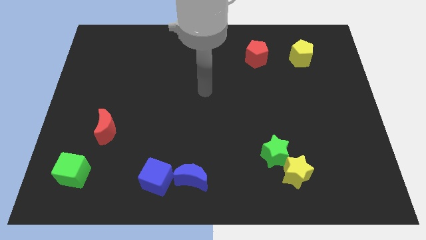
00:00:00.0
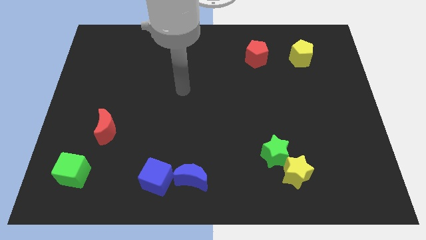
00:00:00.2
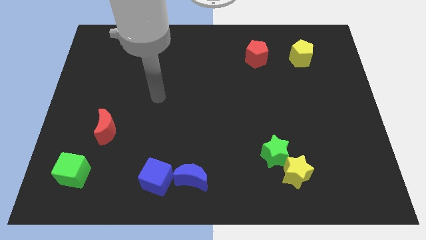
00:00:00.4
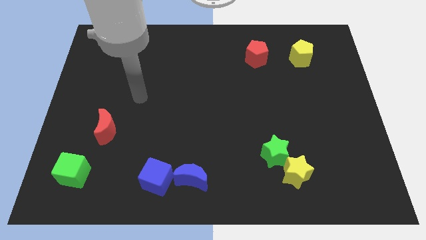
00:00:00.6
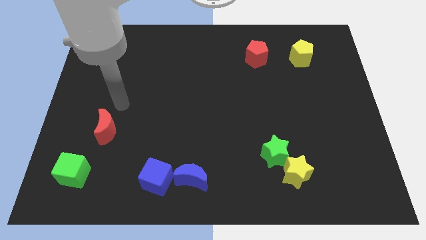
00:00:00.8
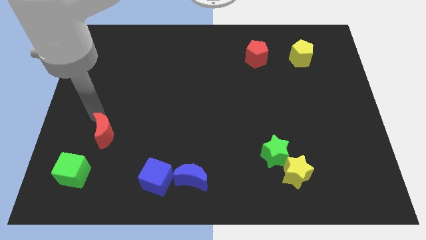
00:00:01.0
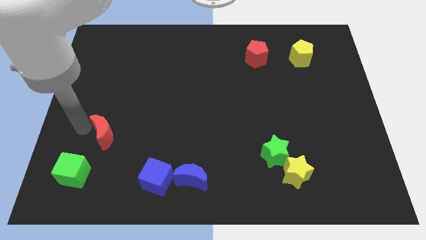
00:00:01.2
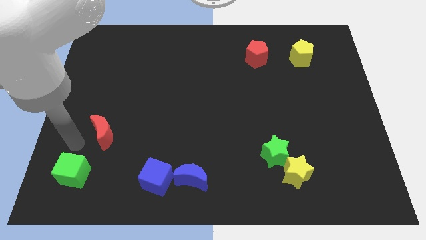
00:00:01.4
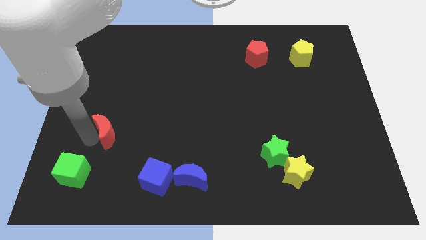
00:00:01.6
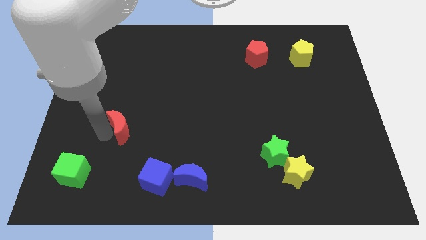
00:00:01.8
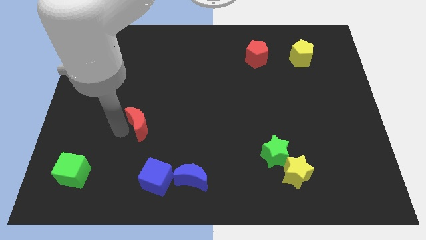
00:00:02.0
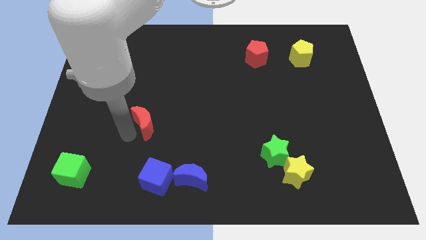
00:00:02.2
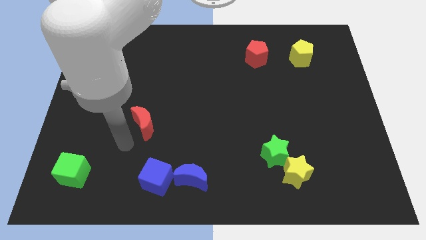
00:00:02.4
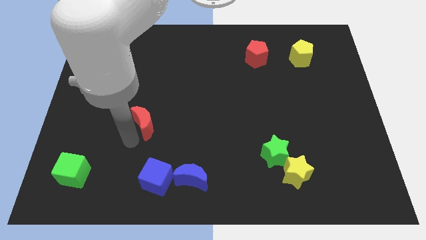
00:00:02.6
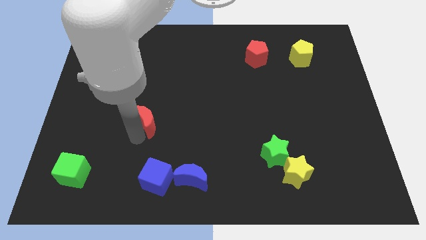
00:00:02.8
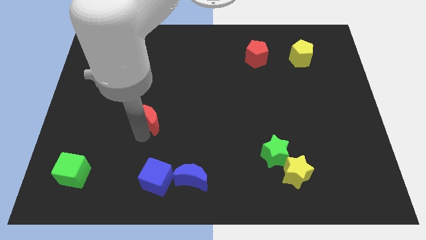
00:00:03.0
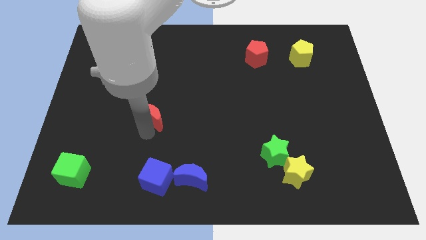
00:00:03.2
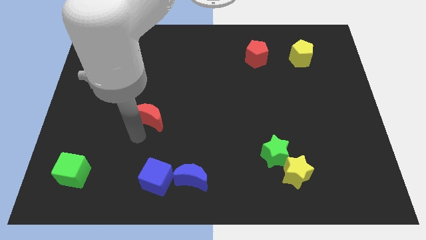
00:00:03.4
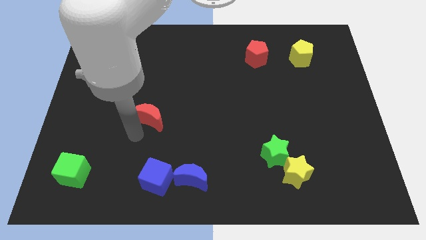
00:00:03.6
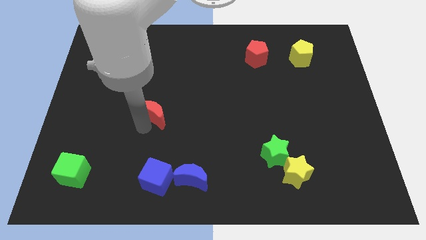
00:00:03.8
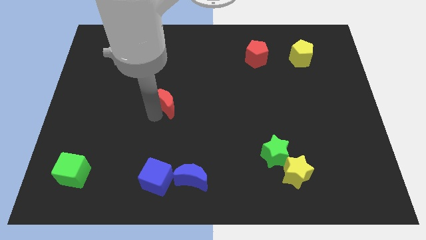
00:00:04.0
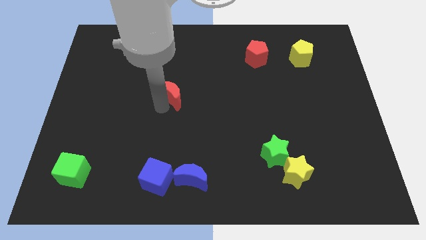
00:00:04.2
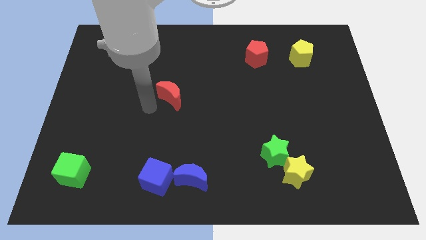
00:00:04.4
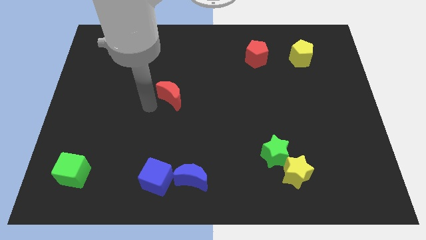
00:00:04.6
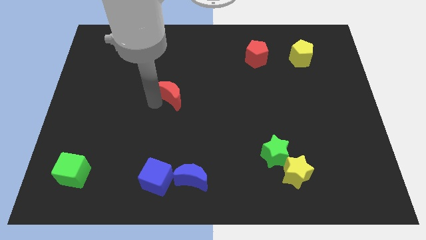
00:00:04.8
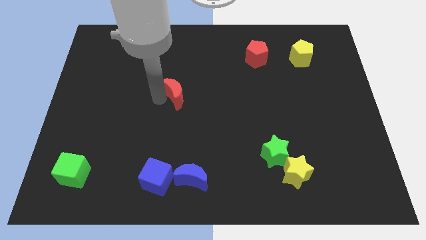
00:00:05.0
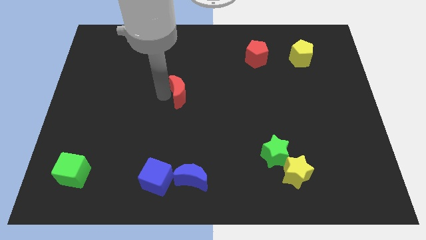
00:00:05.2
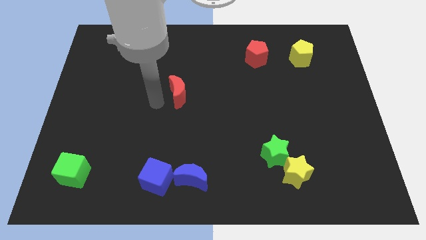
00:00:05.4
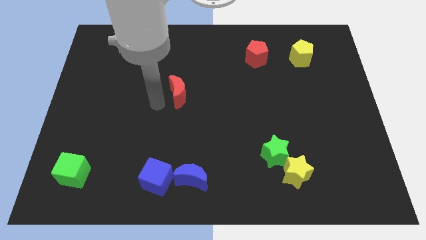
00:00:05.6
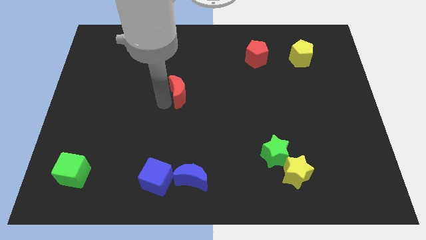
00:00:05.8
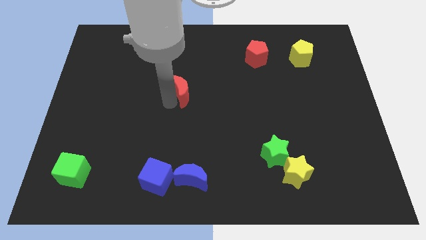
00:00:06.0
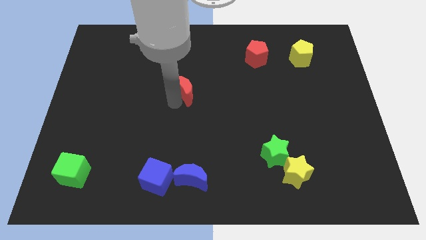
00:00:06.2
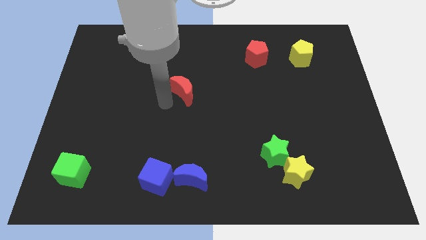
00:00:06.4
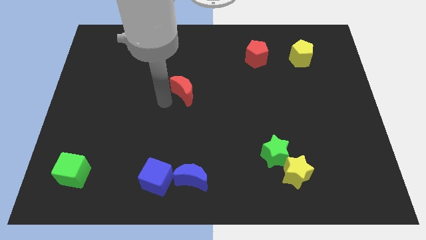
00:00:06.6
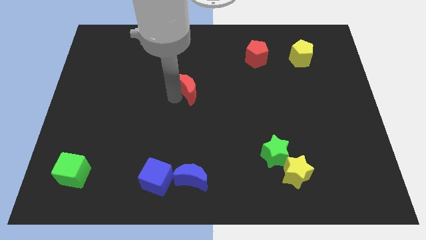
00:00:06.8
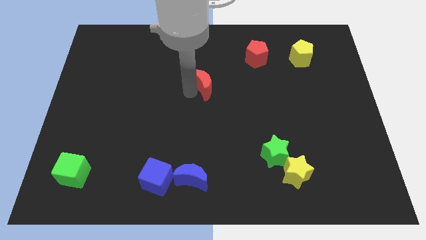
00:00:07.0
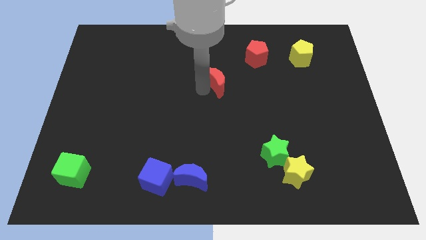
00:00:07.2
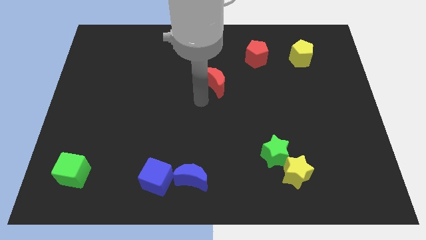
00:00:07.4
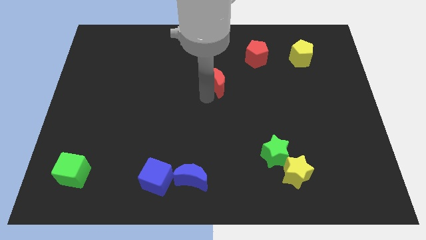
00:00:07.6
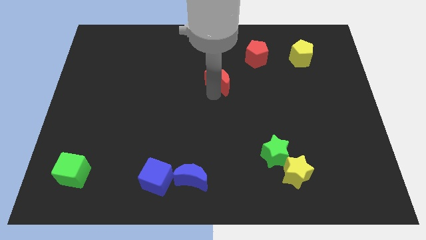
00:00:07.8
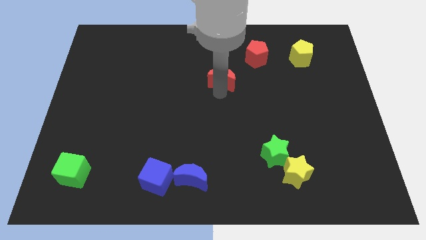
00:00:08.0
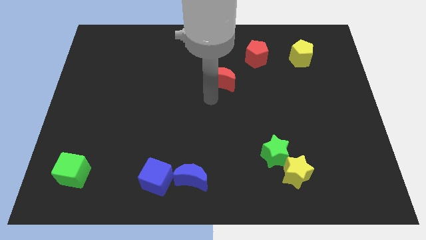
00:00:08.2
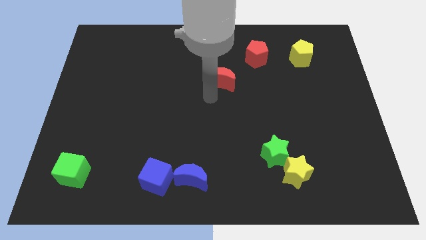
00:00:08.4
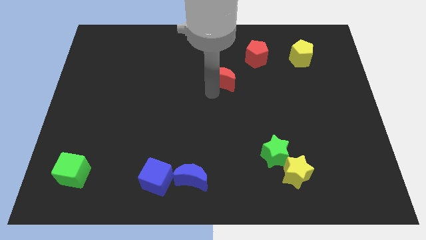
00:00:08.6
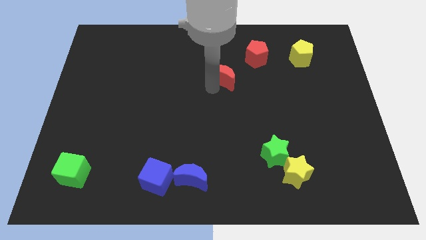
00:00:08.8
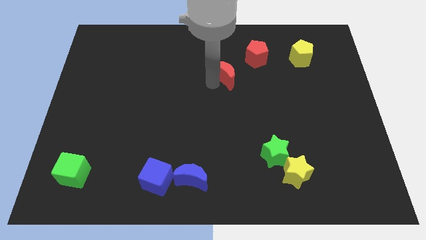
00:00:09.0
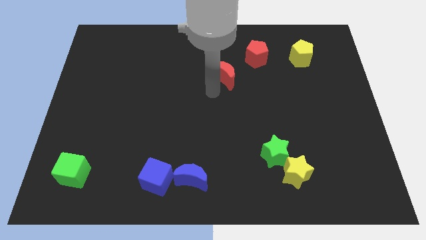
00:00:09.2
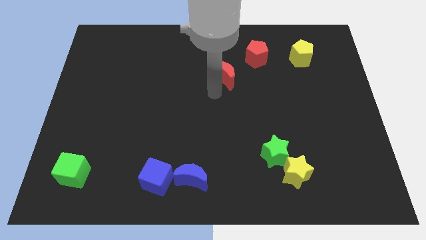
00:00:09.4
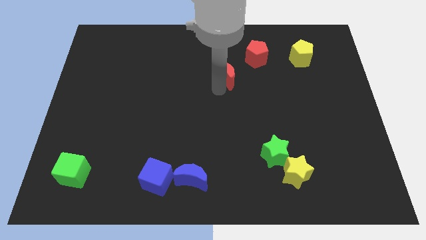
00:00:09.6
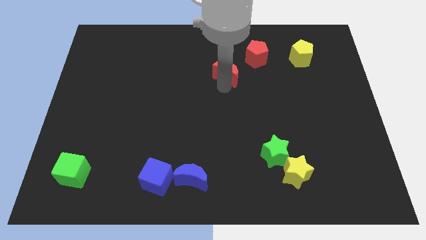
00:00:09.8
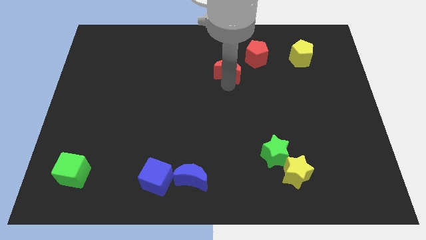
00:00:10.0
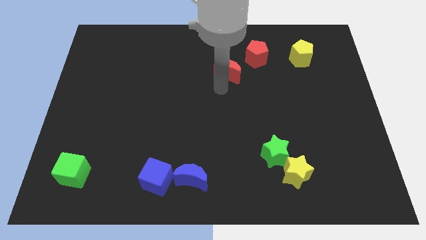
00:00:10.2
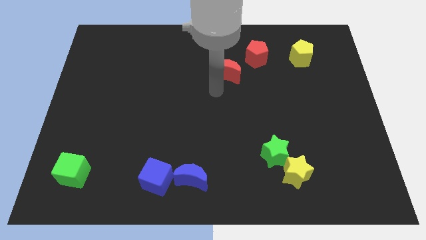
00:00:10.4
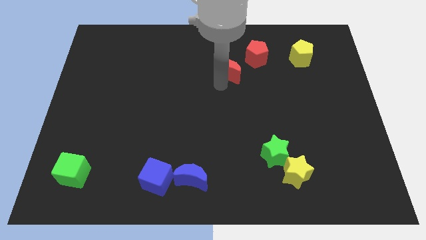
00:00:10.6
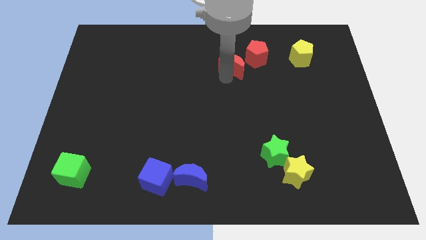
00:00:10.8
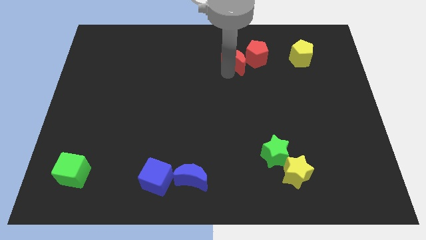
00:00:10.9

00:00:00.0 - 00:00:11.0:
put the red moon next to the red pentagon

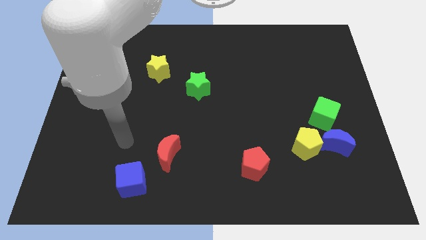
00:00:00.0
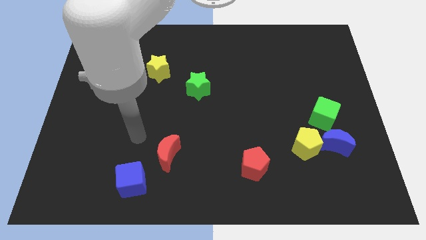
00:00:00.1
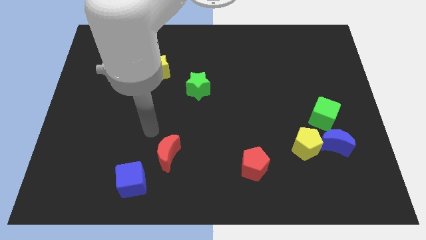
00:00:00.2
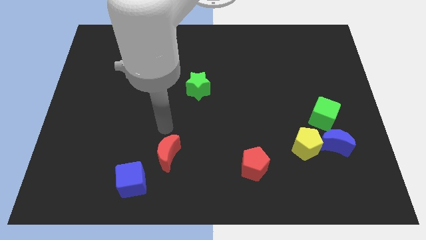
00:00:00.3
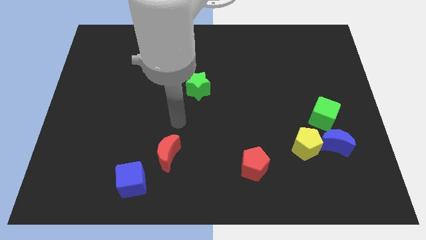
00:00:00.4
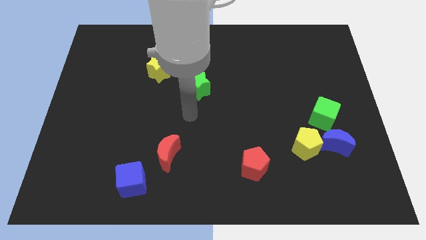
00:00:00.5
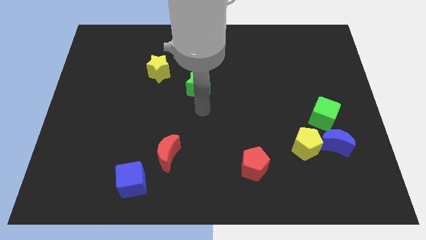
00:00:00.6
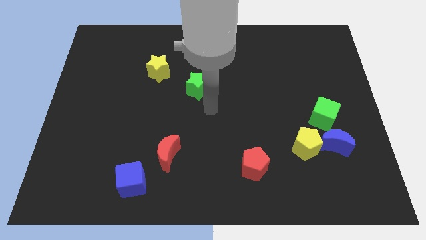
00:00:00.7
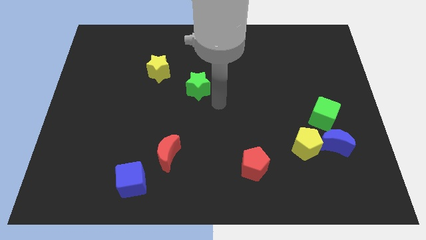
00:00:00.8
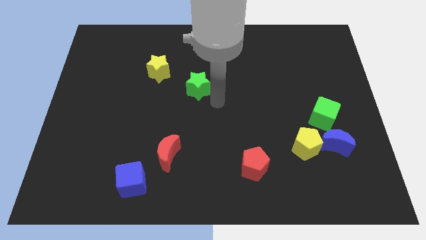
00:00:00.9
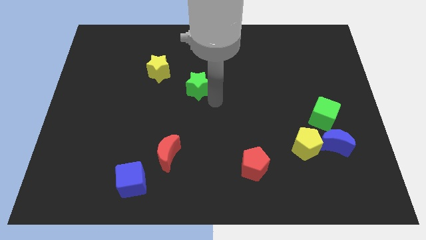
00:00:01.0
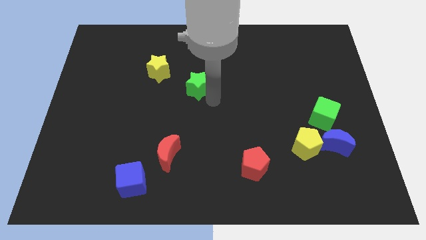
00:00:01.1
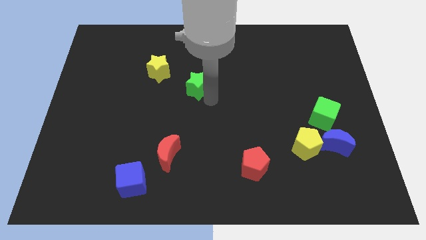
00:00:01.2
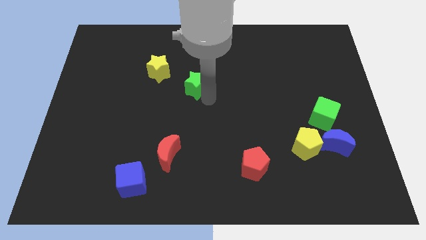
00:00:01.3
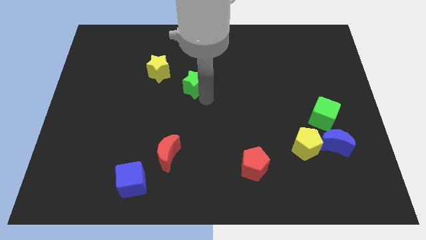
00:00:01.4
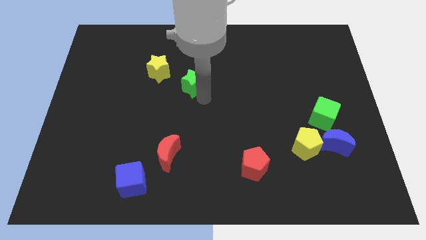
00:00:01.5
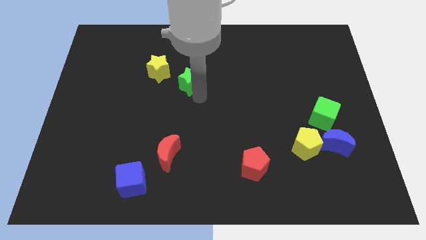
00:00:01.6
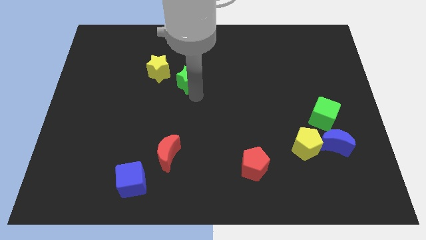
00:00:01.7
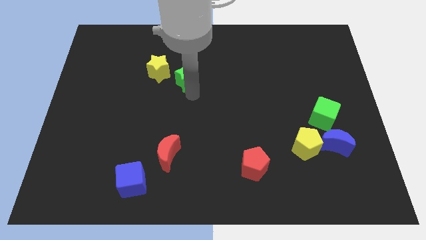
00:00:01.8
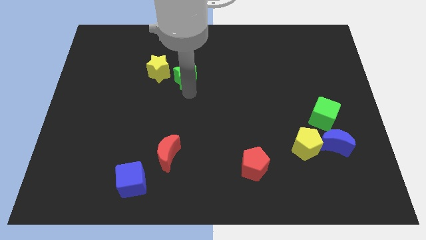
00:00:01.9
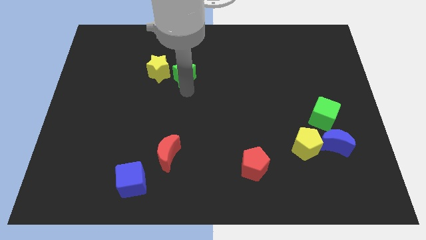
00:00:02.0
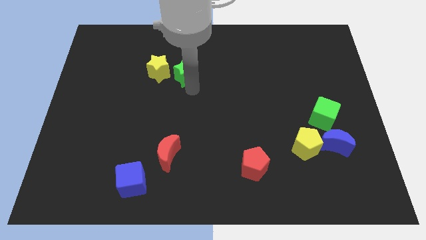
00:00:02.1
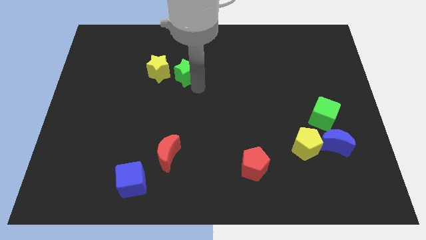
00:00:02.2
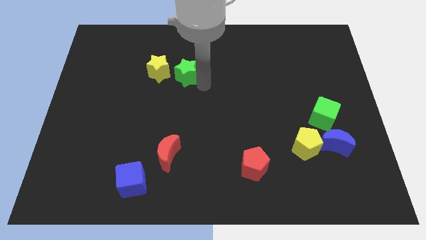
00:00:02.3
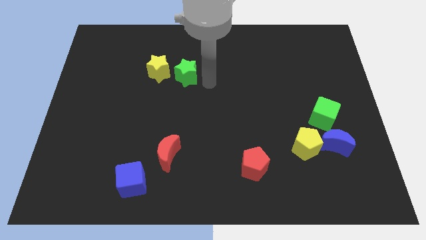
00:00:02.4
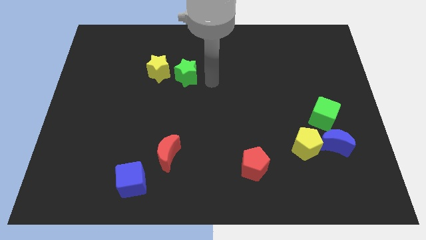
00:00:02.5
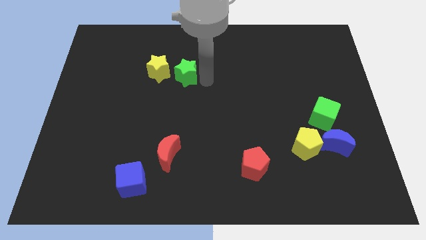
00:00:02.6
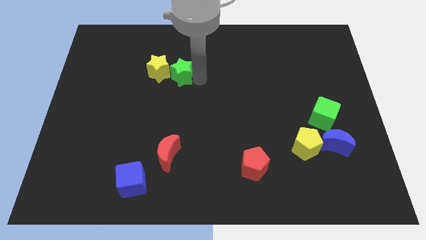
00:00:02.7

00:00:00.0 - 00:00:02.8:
put the green star close to the yellow star
